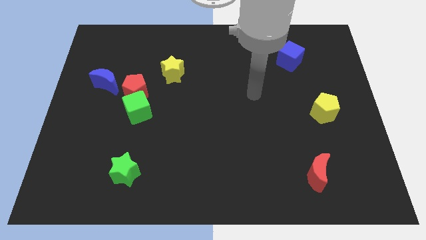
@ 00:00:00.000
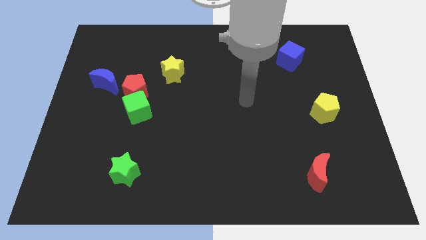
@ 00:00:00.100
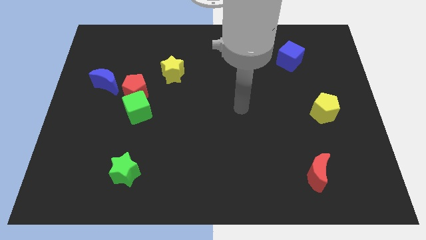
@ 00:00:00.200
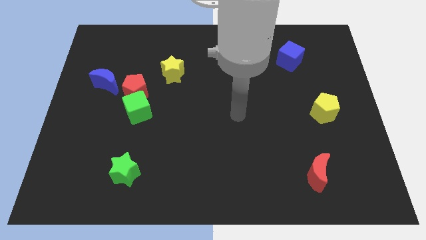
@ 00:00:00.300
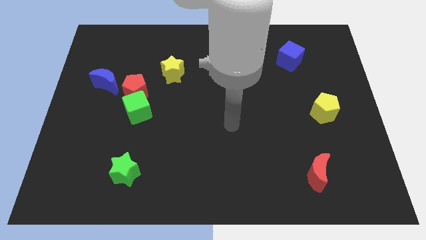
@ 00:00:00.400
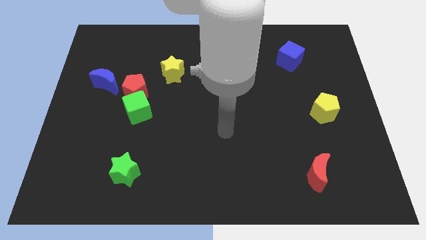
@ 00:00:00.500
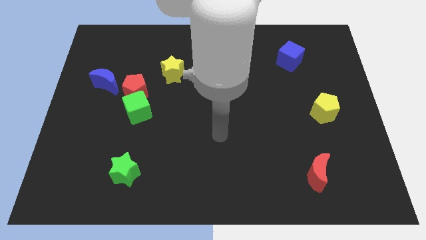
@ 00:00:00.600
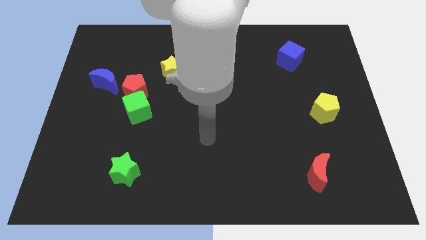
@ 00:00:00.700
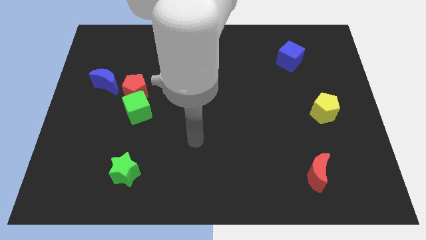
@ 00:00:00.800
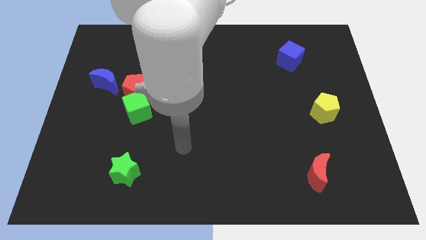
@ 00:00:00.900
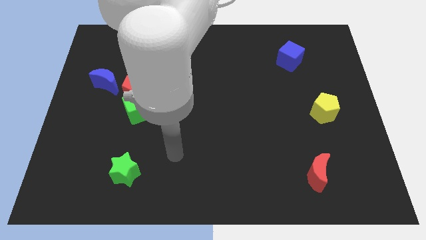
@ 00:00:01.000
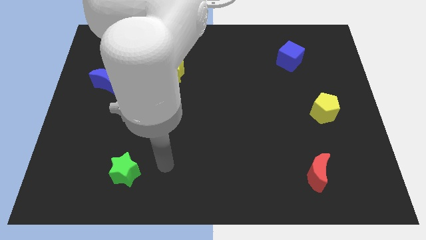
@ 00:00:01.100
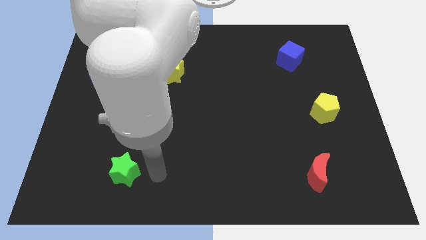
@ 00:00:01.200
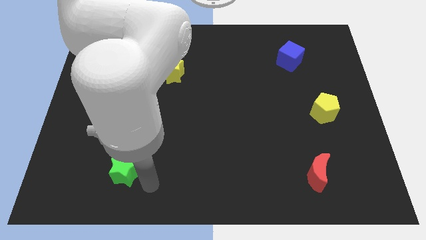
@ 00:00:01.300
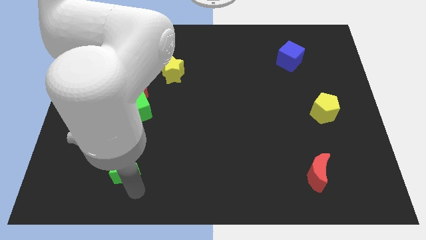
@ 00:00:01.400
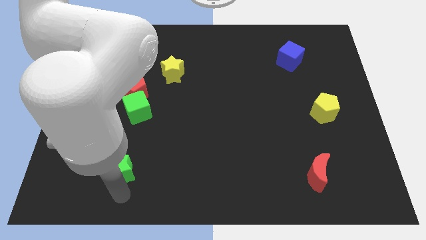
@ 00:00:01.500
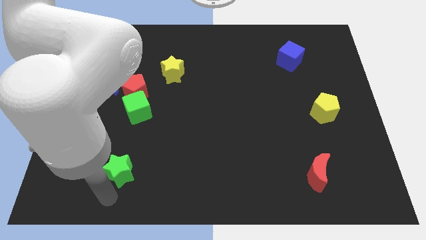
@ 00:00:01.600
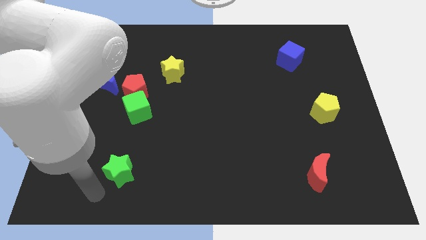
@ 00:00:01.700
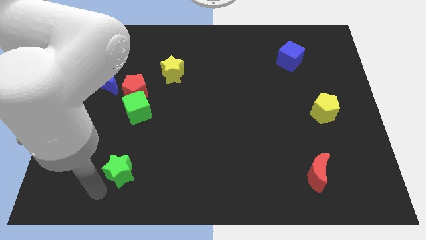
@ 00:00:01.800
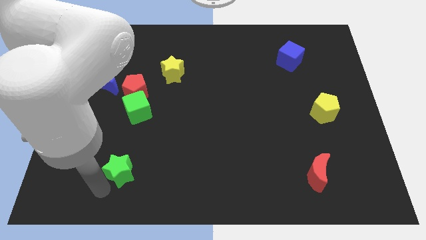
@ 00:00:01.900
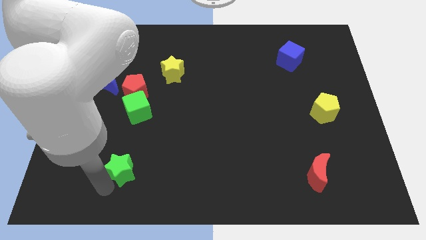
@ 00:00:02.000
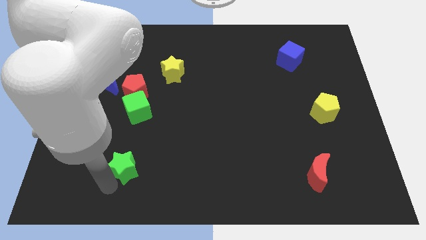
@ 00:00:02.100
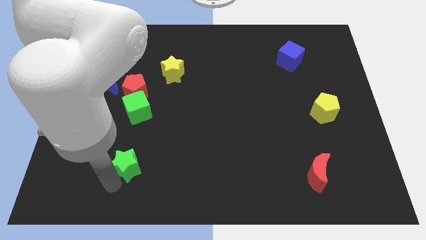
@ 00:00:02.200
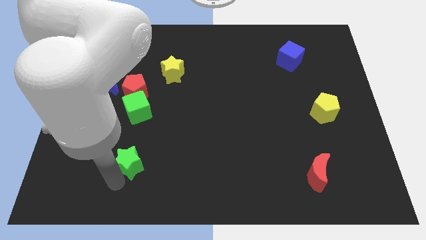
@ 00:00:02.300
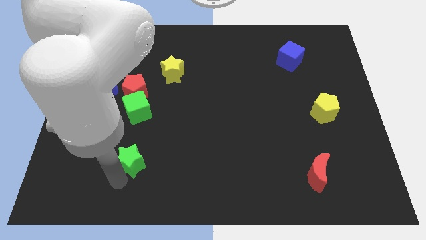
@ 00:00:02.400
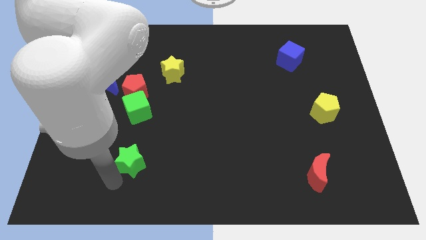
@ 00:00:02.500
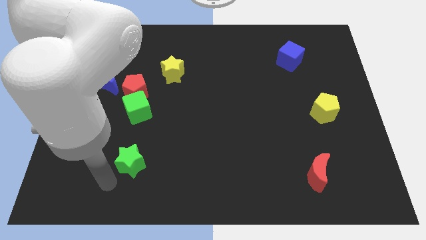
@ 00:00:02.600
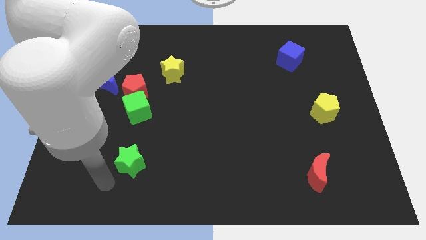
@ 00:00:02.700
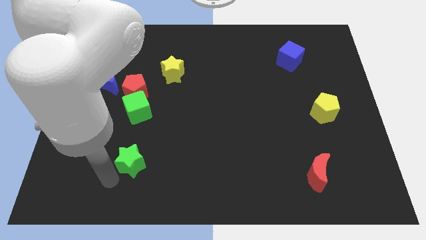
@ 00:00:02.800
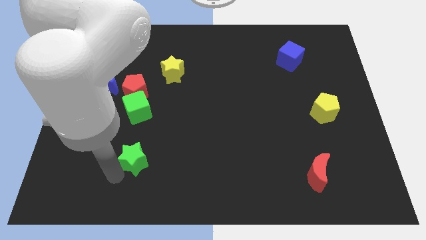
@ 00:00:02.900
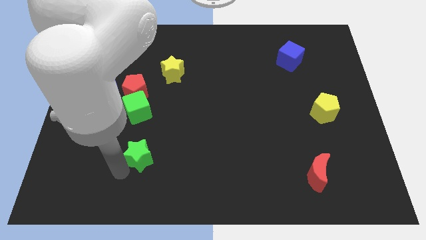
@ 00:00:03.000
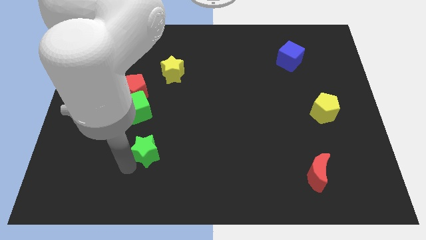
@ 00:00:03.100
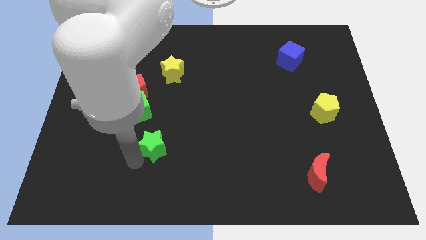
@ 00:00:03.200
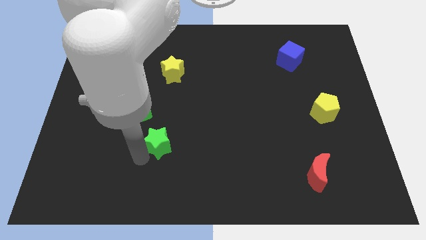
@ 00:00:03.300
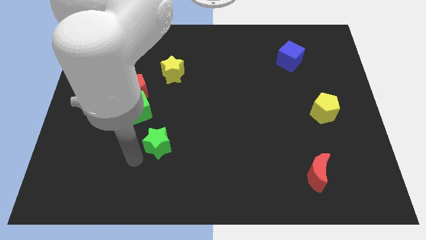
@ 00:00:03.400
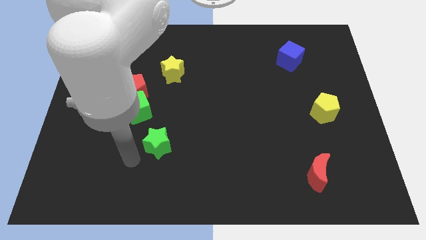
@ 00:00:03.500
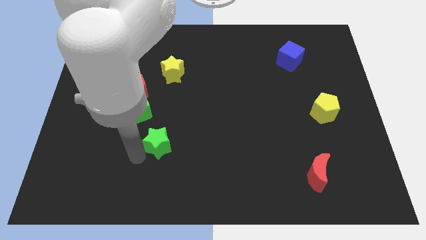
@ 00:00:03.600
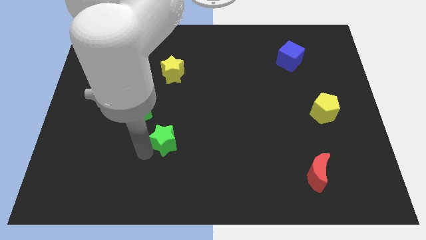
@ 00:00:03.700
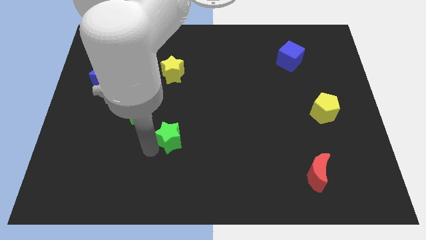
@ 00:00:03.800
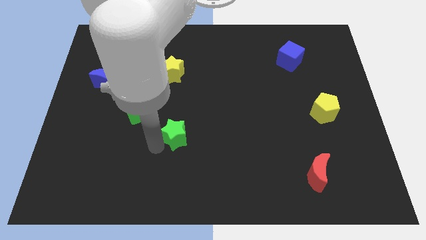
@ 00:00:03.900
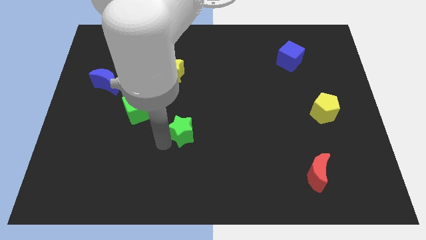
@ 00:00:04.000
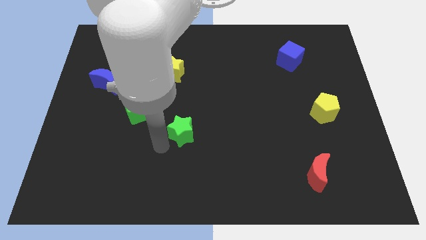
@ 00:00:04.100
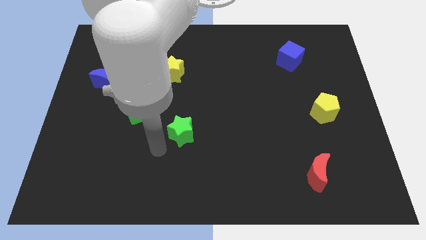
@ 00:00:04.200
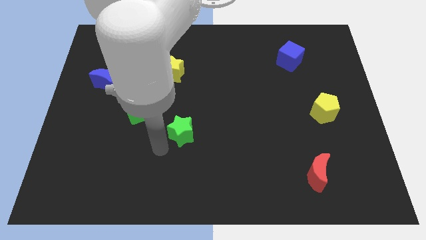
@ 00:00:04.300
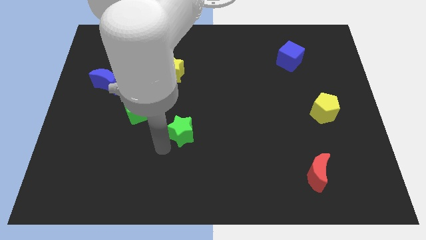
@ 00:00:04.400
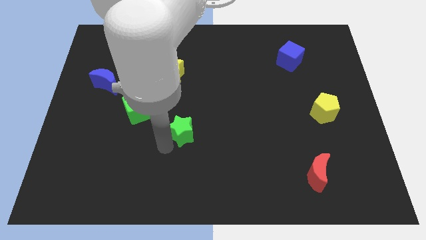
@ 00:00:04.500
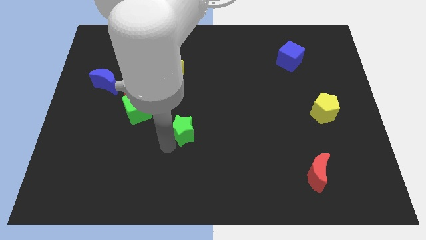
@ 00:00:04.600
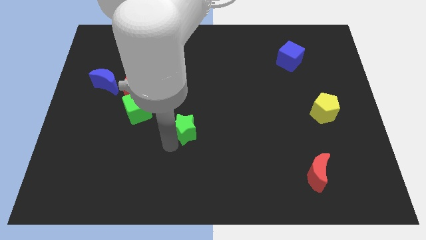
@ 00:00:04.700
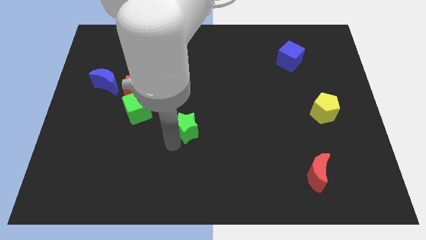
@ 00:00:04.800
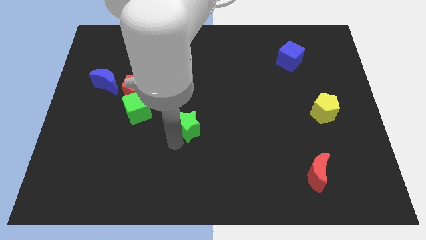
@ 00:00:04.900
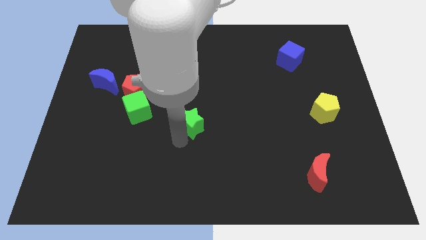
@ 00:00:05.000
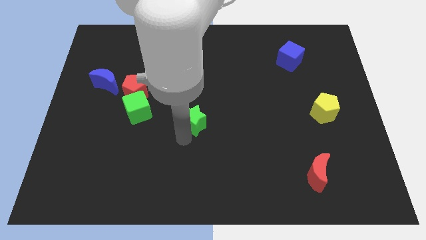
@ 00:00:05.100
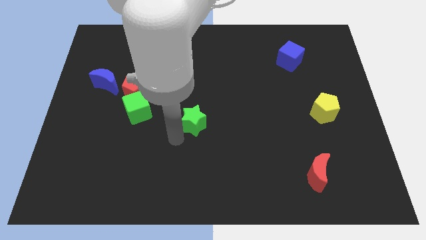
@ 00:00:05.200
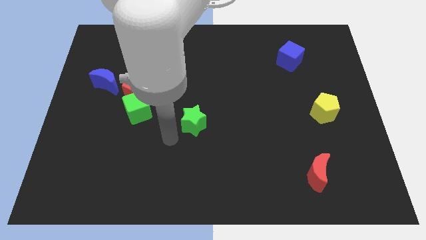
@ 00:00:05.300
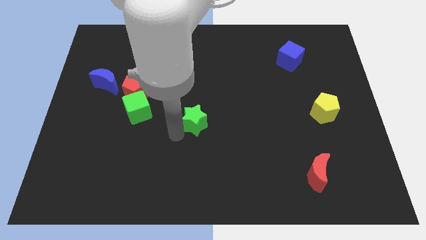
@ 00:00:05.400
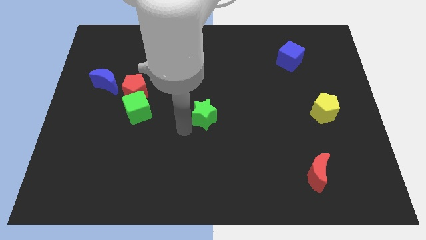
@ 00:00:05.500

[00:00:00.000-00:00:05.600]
push the green star up and right diagonally

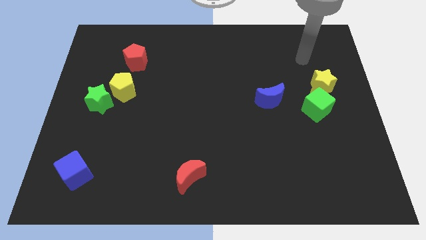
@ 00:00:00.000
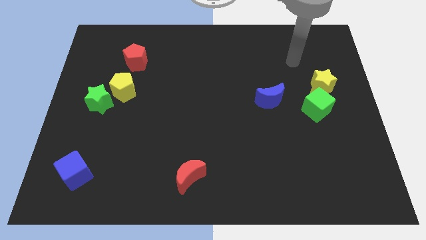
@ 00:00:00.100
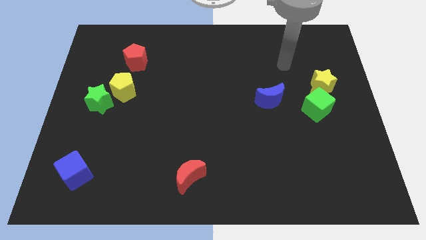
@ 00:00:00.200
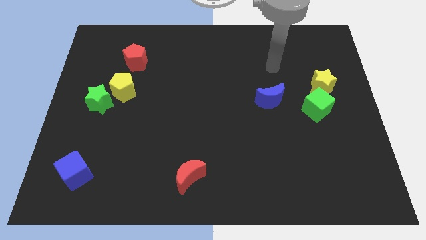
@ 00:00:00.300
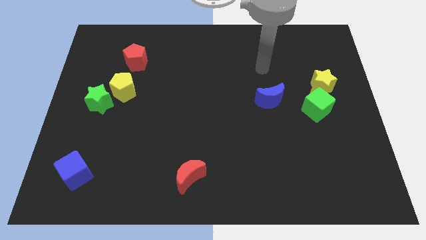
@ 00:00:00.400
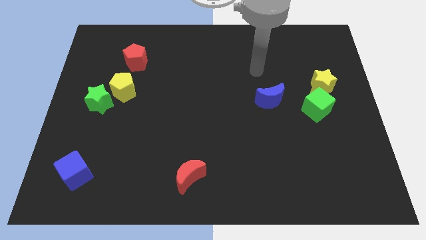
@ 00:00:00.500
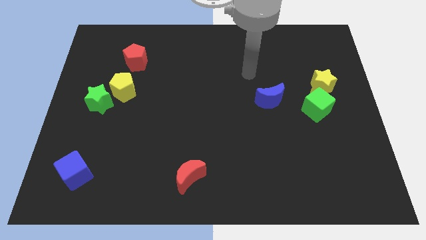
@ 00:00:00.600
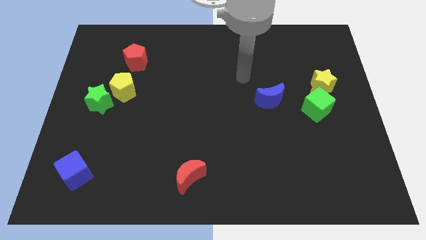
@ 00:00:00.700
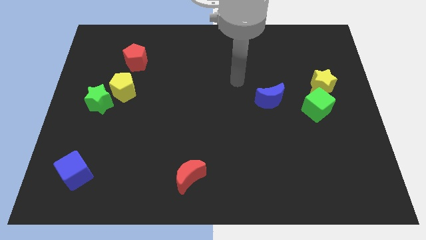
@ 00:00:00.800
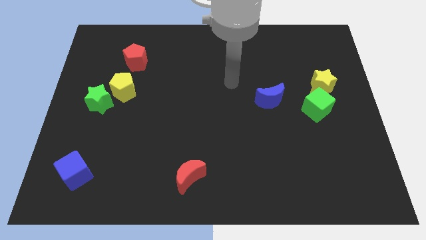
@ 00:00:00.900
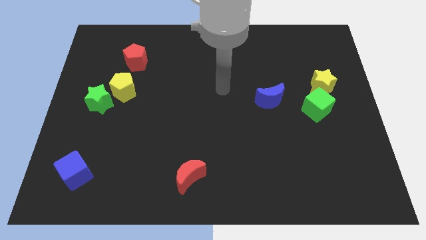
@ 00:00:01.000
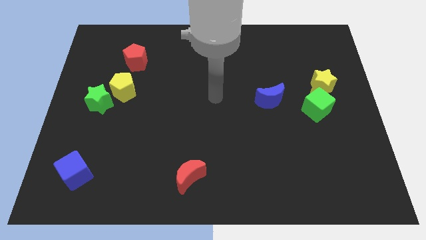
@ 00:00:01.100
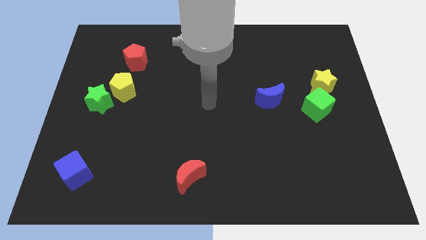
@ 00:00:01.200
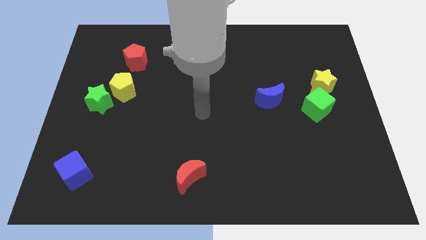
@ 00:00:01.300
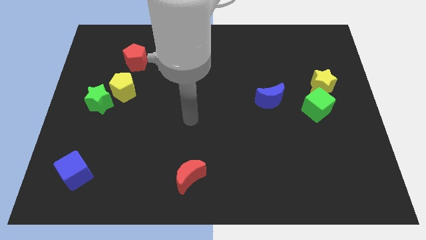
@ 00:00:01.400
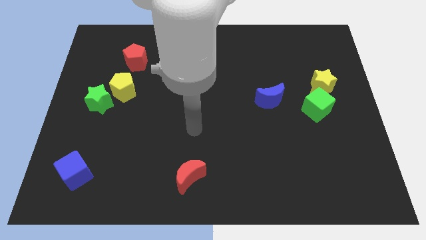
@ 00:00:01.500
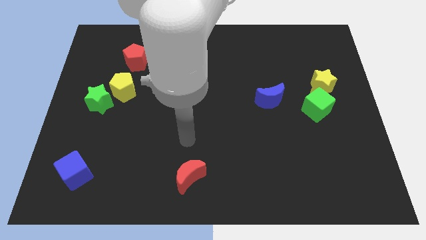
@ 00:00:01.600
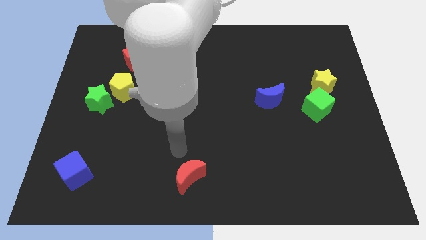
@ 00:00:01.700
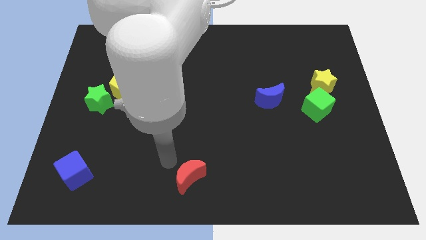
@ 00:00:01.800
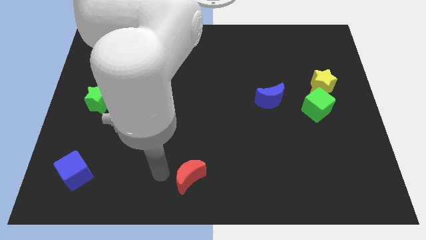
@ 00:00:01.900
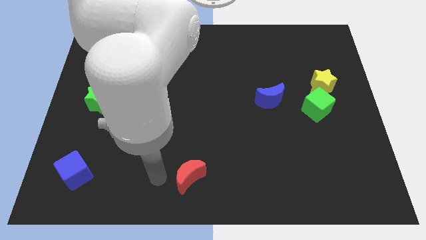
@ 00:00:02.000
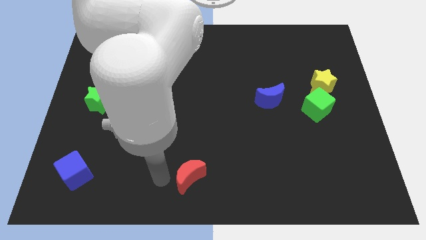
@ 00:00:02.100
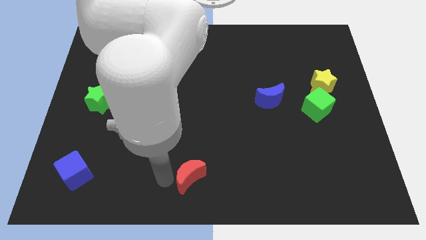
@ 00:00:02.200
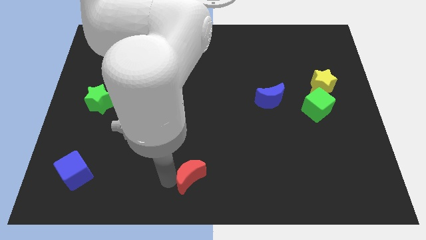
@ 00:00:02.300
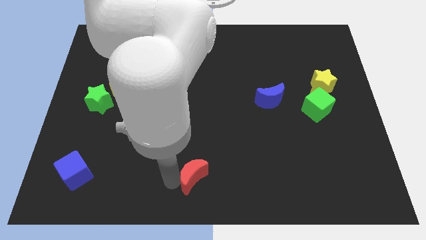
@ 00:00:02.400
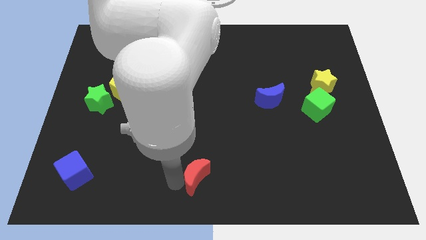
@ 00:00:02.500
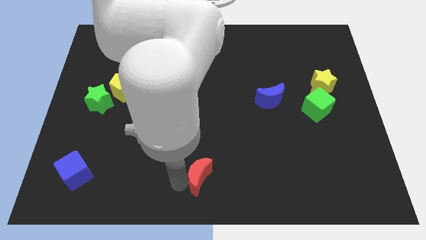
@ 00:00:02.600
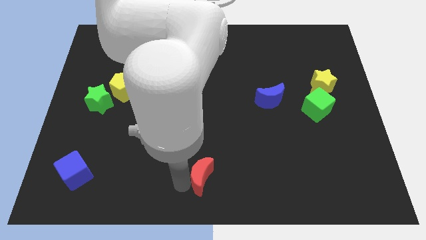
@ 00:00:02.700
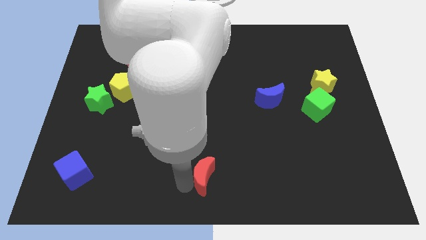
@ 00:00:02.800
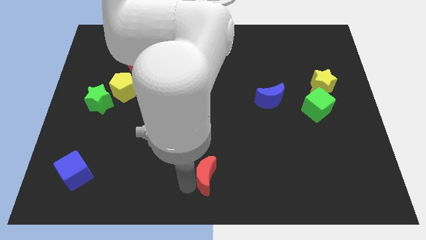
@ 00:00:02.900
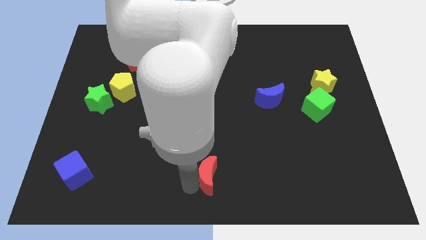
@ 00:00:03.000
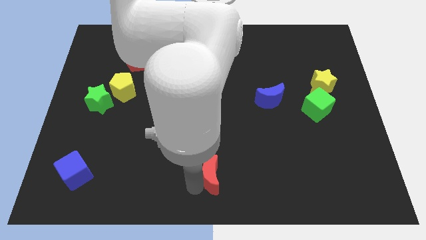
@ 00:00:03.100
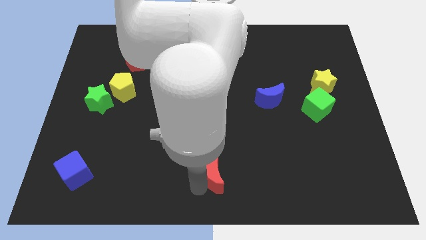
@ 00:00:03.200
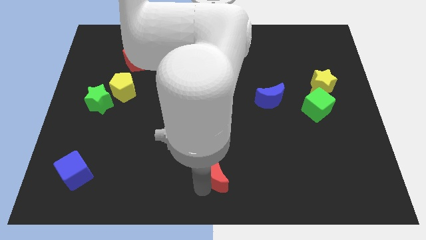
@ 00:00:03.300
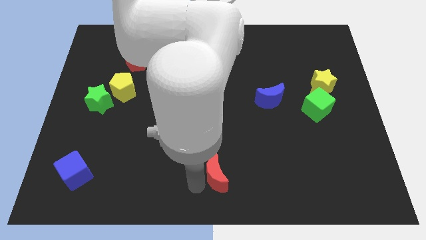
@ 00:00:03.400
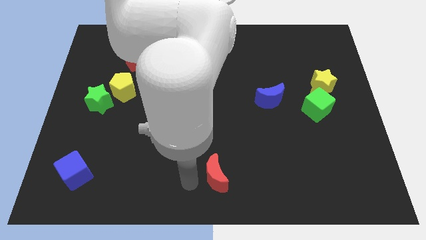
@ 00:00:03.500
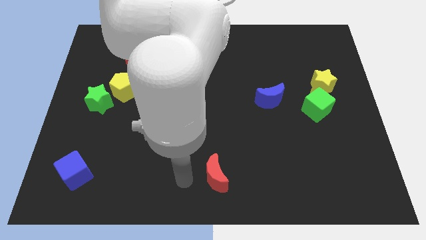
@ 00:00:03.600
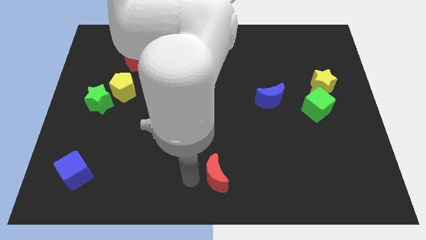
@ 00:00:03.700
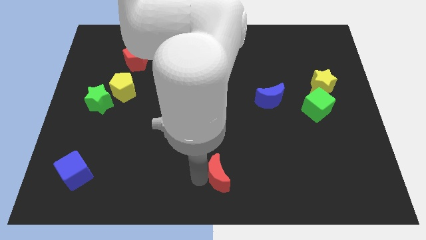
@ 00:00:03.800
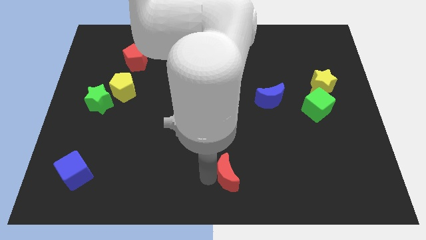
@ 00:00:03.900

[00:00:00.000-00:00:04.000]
push the red moon to the right slightly
